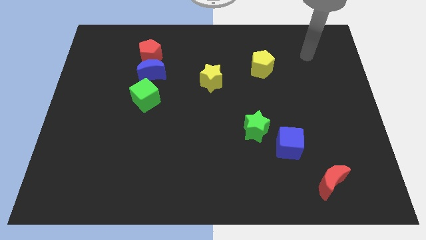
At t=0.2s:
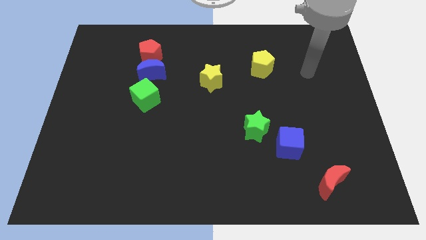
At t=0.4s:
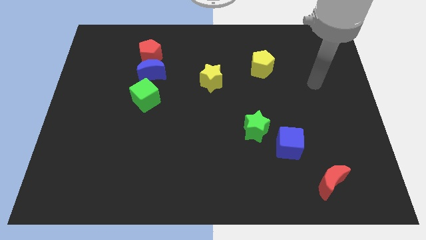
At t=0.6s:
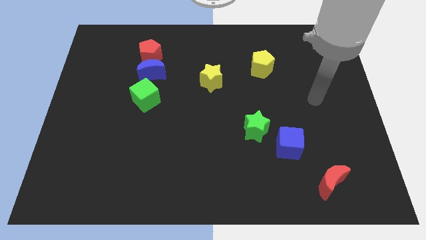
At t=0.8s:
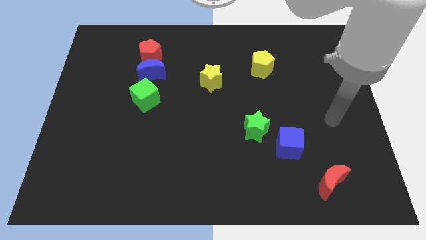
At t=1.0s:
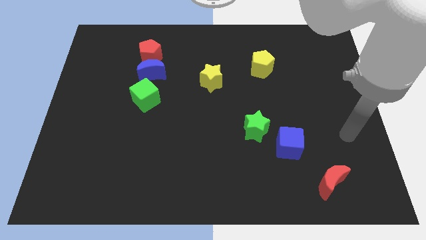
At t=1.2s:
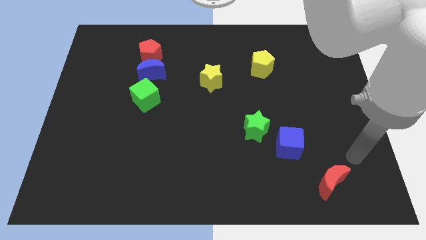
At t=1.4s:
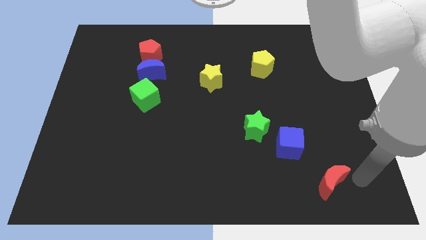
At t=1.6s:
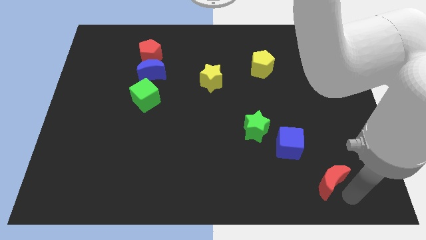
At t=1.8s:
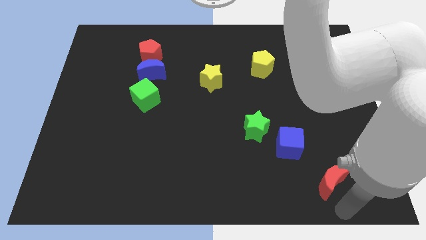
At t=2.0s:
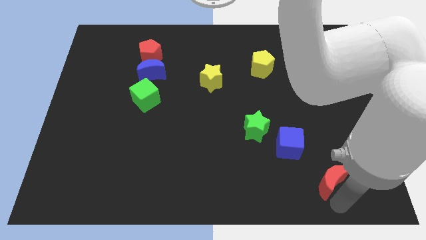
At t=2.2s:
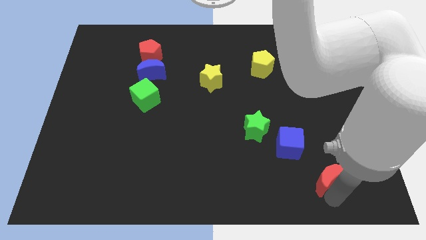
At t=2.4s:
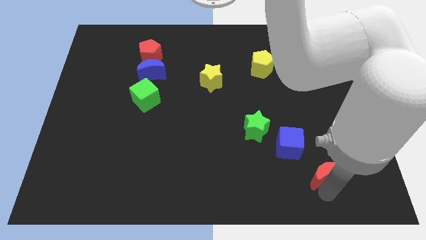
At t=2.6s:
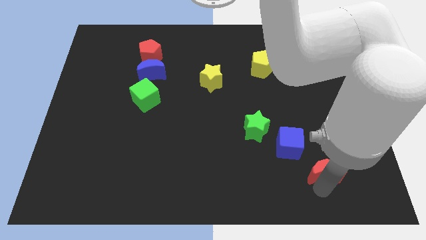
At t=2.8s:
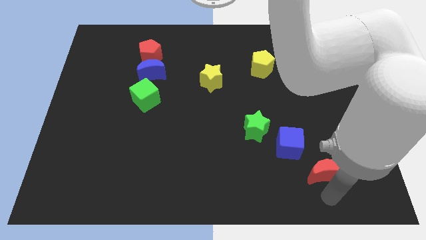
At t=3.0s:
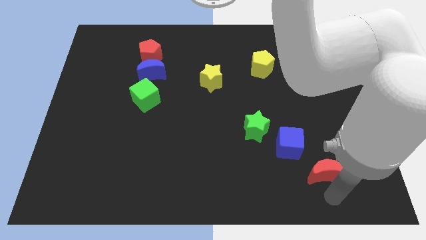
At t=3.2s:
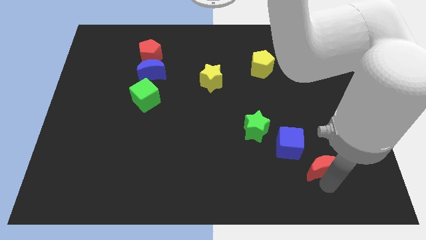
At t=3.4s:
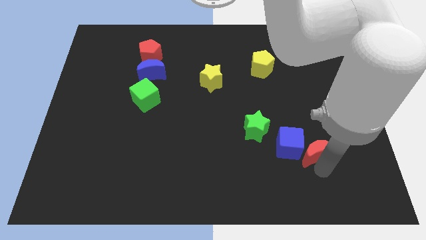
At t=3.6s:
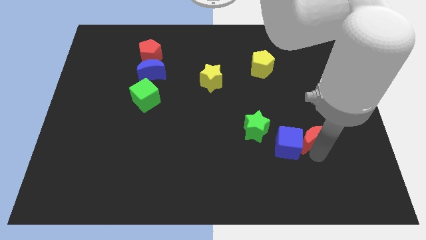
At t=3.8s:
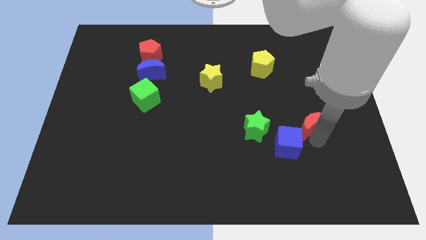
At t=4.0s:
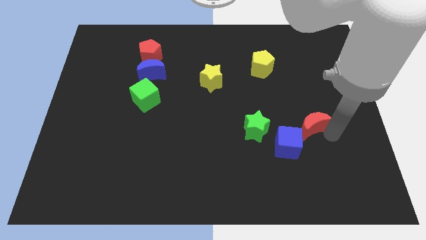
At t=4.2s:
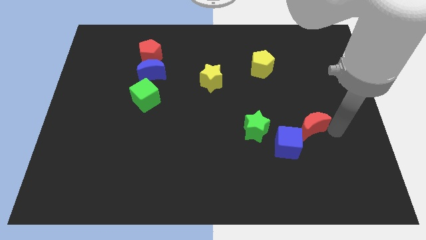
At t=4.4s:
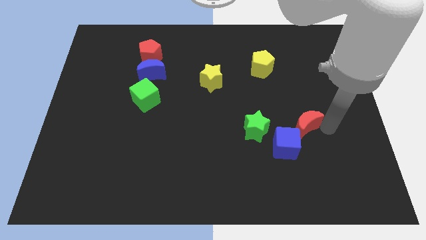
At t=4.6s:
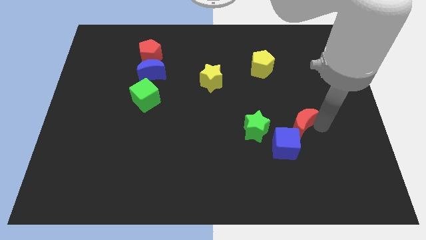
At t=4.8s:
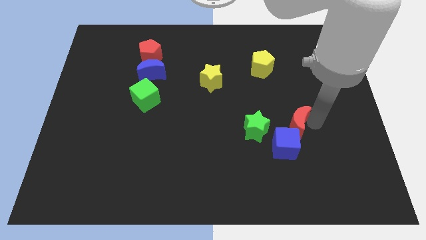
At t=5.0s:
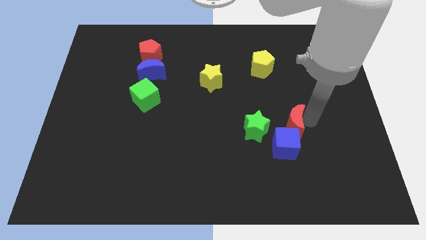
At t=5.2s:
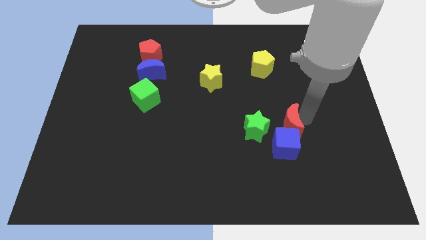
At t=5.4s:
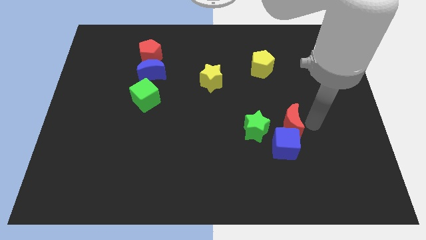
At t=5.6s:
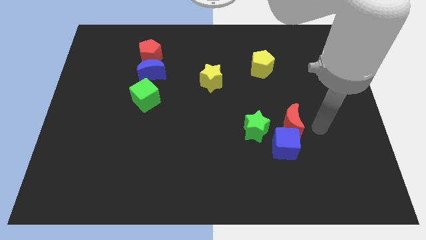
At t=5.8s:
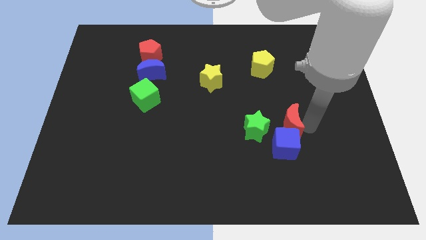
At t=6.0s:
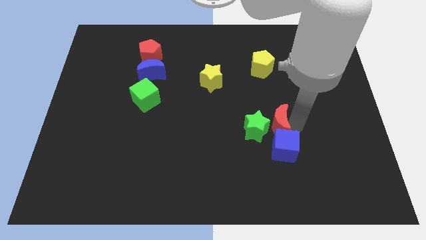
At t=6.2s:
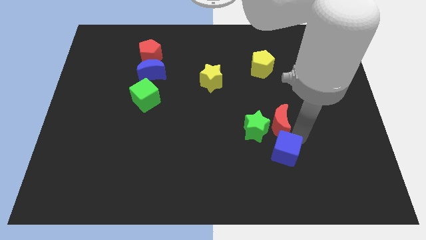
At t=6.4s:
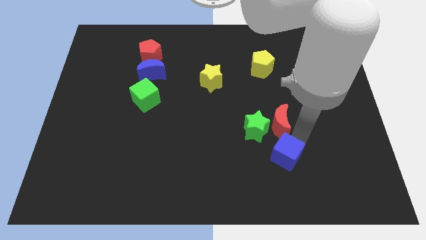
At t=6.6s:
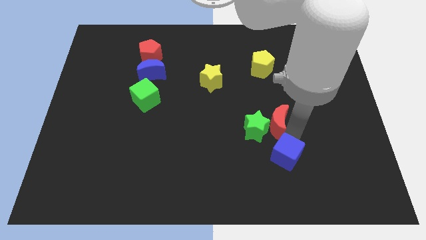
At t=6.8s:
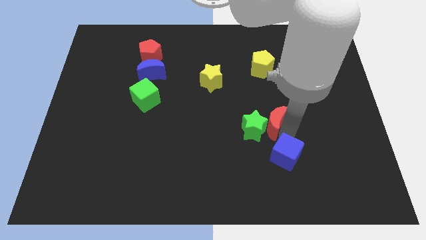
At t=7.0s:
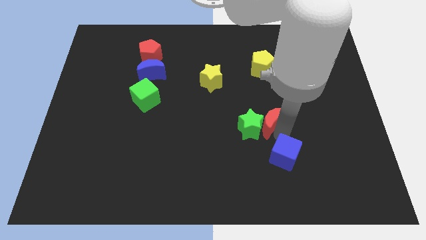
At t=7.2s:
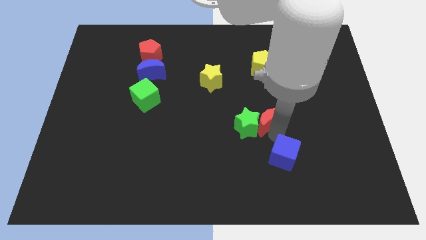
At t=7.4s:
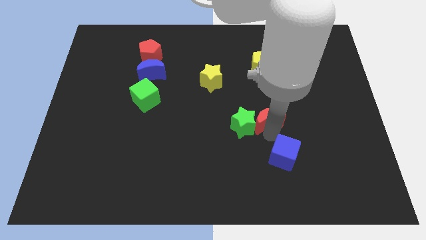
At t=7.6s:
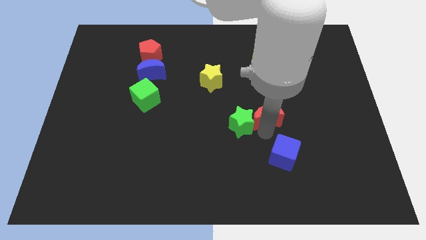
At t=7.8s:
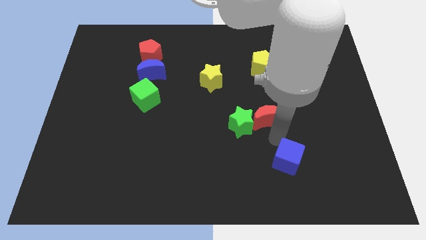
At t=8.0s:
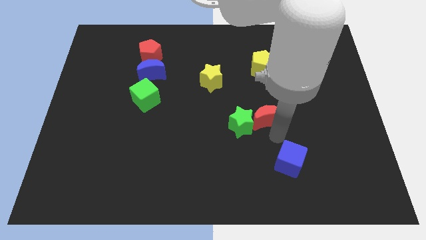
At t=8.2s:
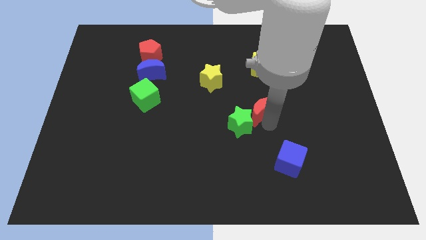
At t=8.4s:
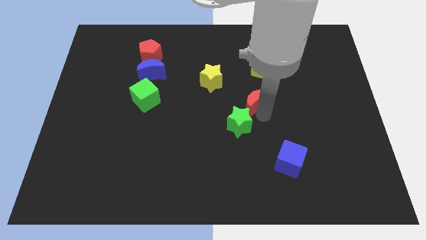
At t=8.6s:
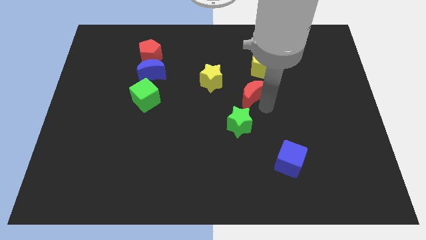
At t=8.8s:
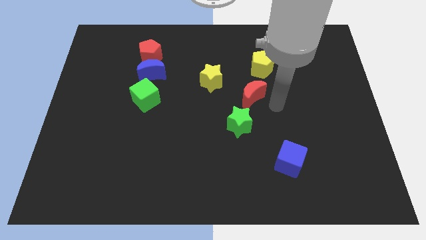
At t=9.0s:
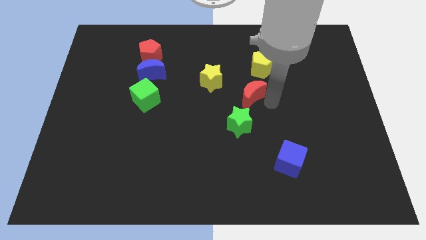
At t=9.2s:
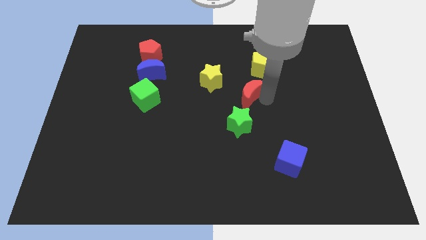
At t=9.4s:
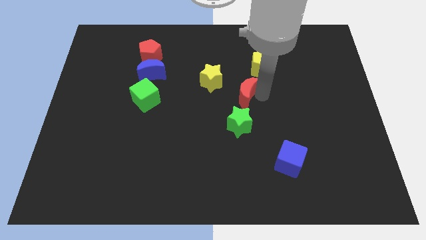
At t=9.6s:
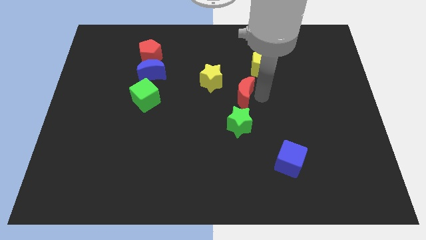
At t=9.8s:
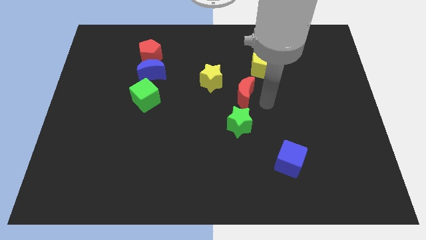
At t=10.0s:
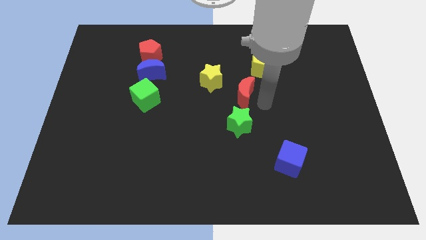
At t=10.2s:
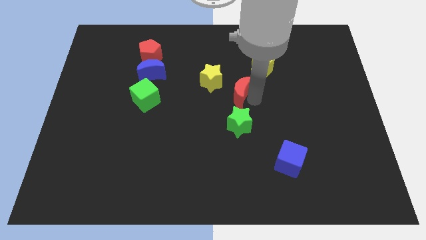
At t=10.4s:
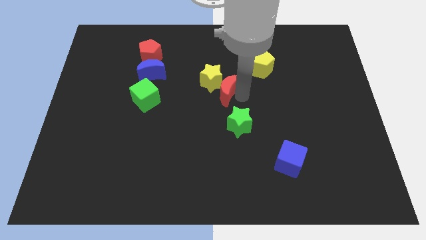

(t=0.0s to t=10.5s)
slide the red moon towards the yellow star

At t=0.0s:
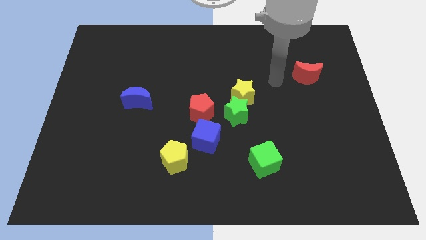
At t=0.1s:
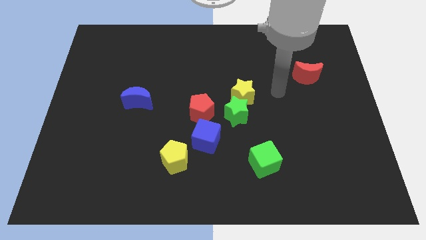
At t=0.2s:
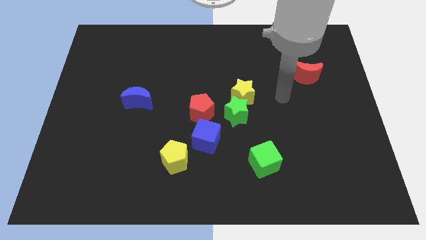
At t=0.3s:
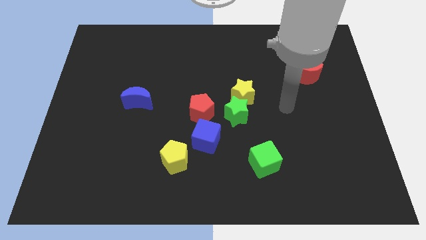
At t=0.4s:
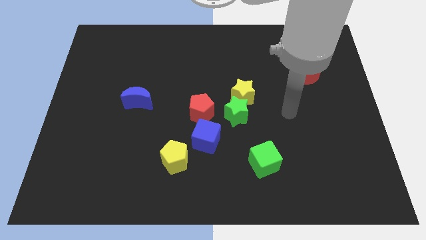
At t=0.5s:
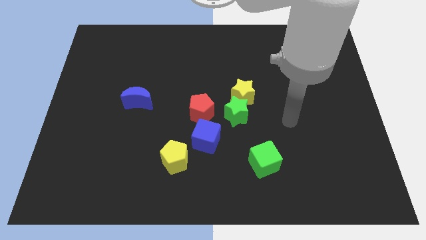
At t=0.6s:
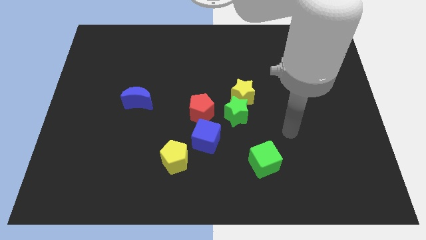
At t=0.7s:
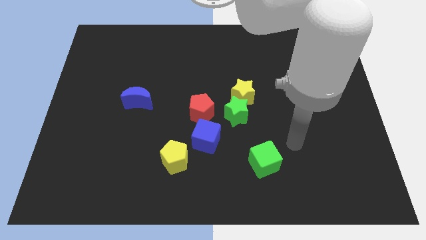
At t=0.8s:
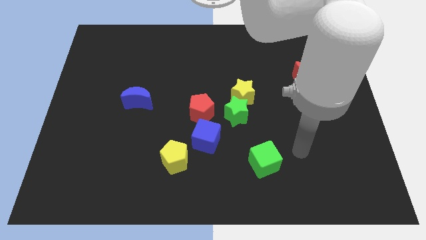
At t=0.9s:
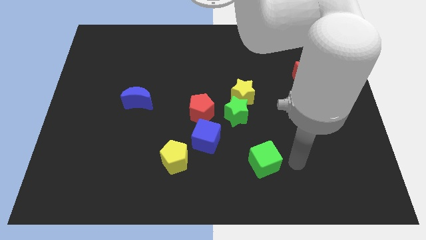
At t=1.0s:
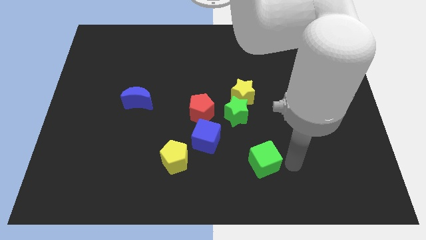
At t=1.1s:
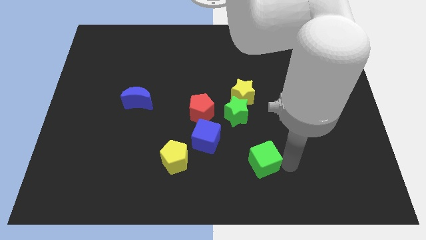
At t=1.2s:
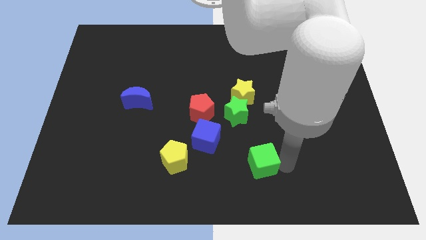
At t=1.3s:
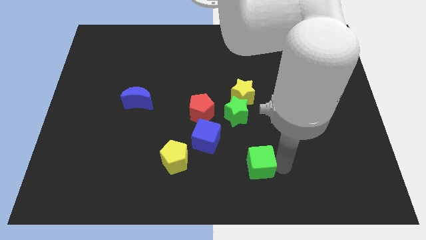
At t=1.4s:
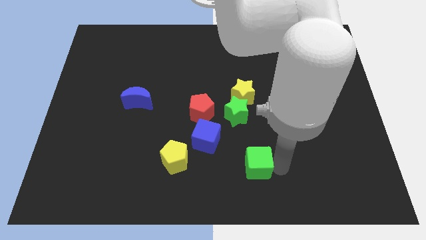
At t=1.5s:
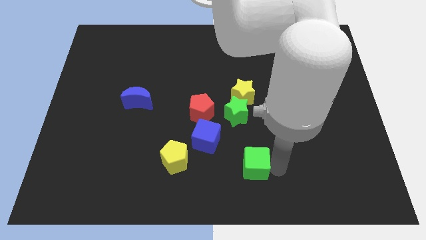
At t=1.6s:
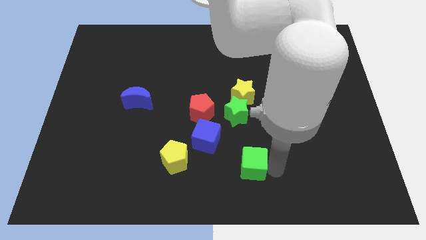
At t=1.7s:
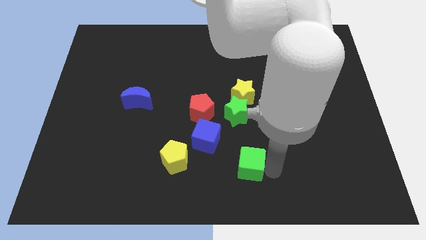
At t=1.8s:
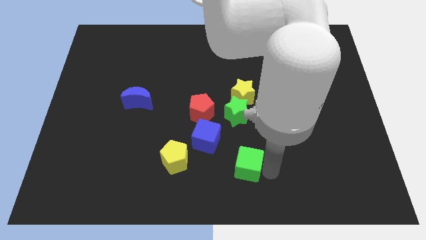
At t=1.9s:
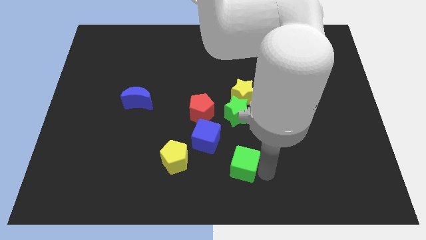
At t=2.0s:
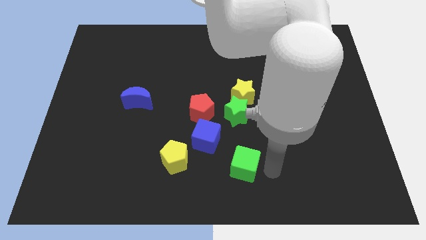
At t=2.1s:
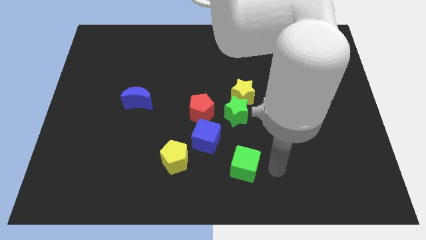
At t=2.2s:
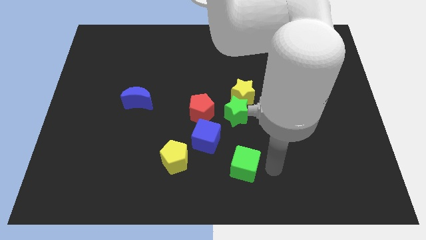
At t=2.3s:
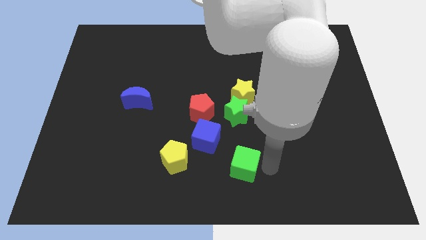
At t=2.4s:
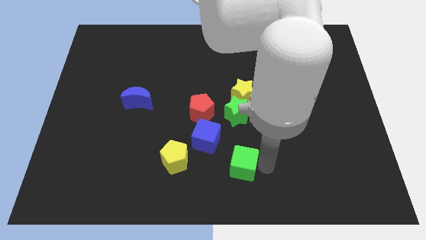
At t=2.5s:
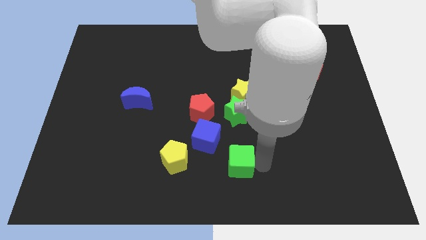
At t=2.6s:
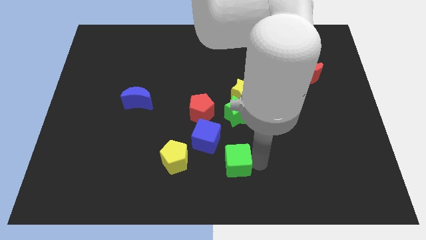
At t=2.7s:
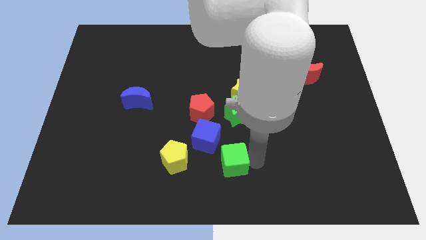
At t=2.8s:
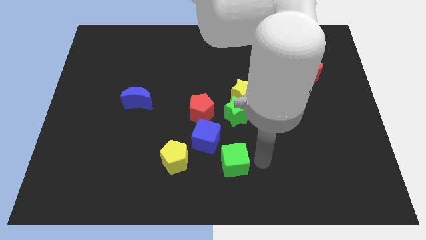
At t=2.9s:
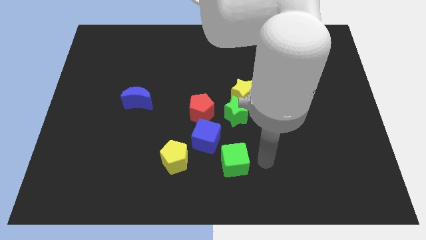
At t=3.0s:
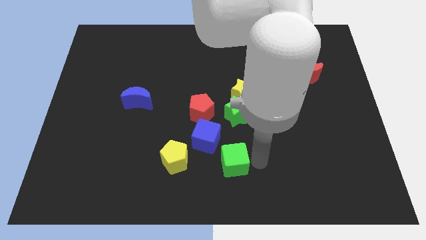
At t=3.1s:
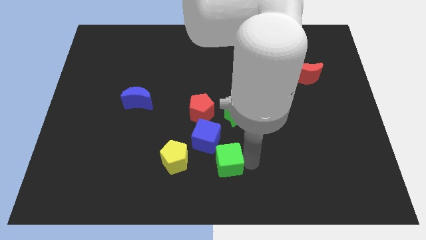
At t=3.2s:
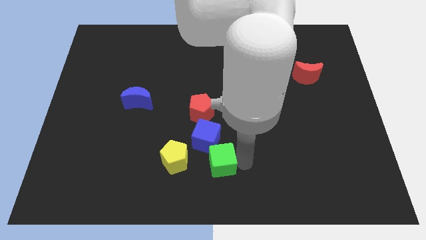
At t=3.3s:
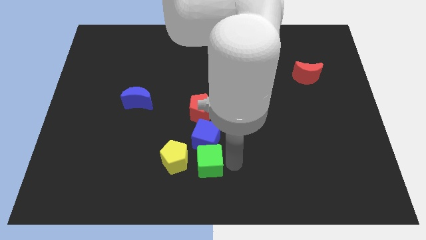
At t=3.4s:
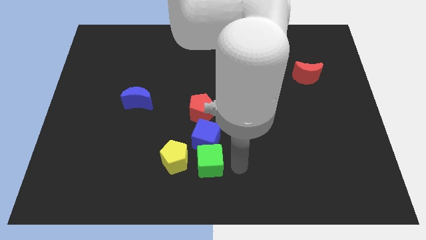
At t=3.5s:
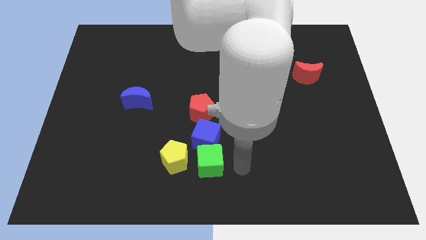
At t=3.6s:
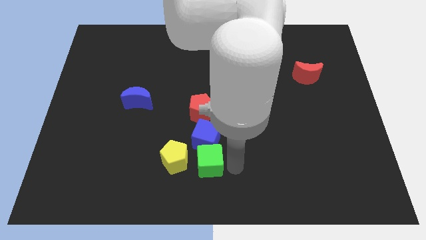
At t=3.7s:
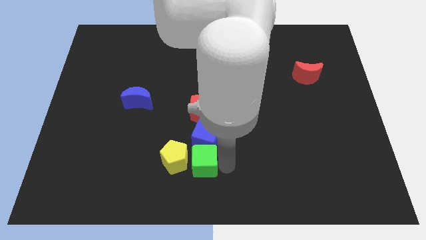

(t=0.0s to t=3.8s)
slide the green cube next to the yellow pentagon
